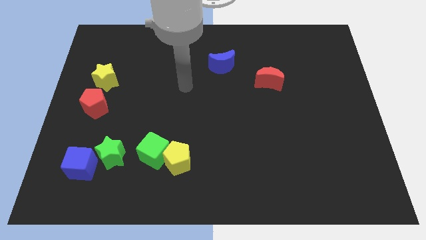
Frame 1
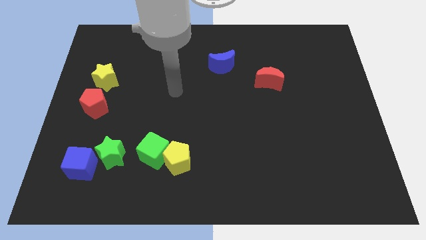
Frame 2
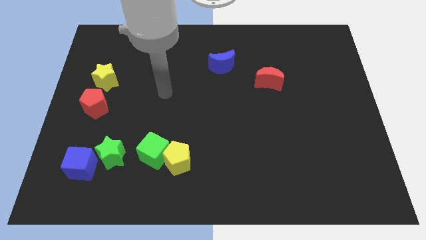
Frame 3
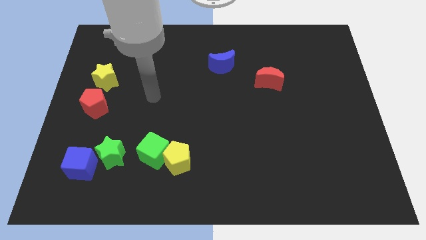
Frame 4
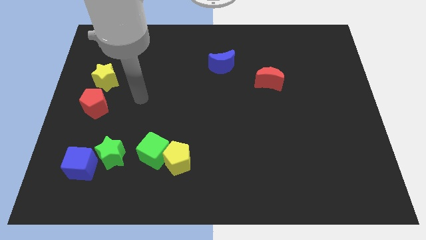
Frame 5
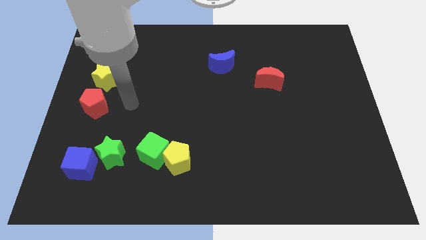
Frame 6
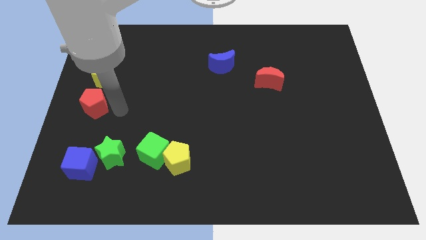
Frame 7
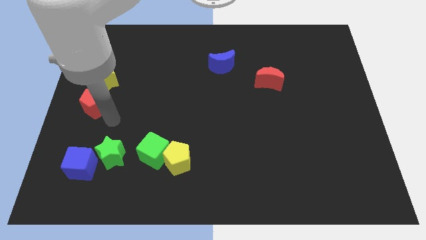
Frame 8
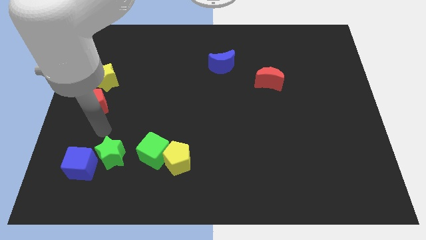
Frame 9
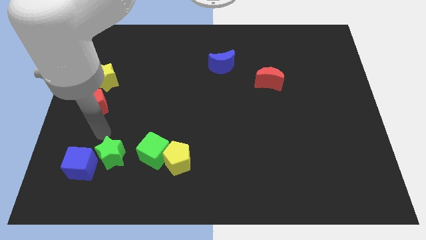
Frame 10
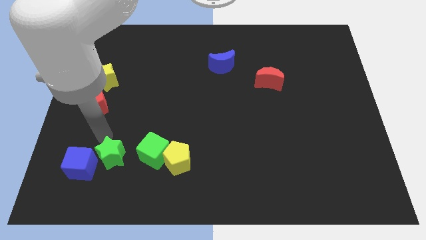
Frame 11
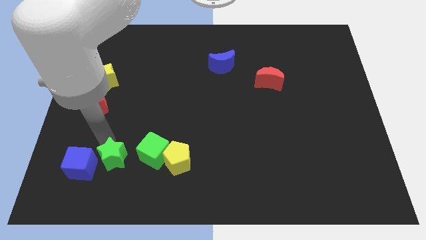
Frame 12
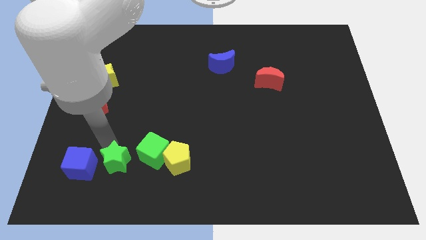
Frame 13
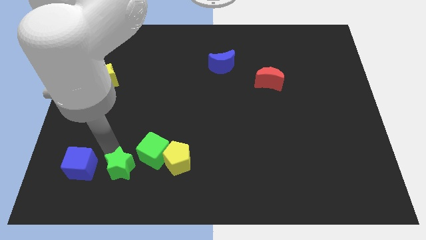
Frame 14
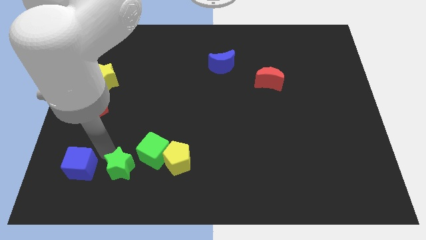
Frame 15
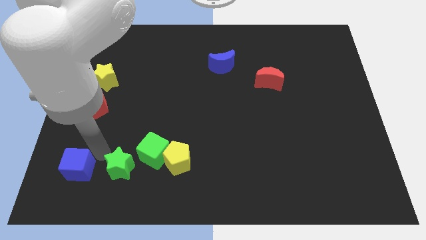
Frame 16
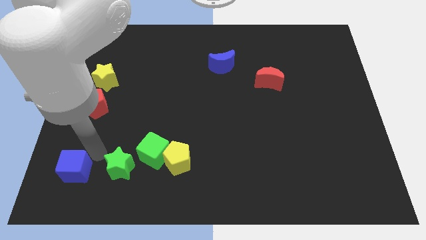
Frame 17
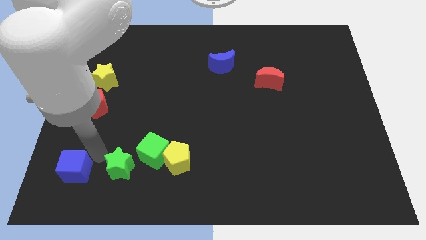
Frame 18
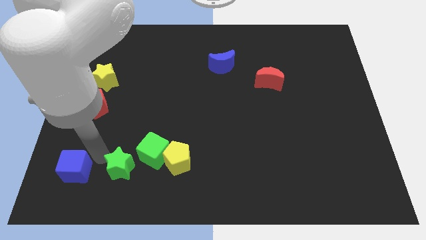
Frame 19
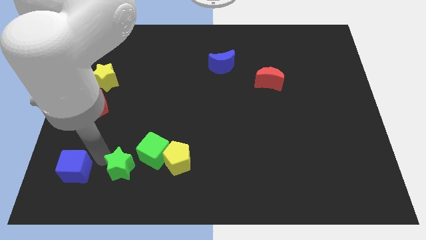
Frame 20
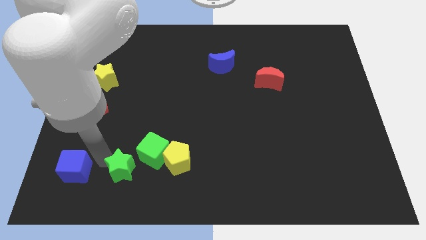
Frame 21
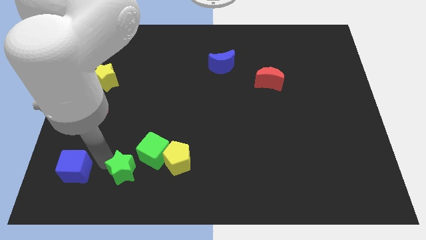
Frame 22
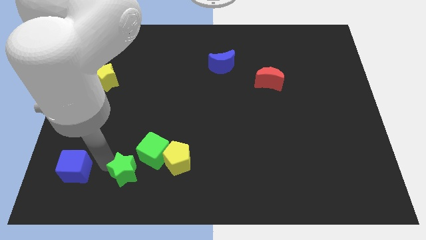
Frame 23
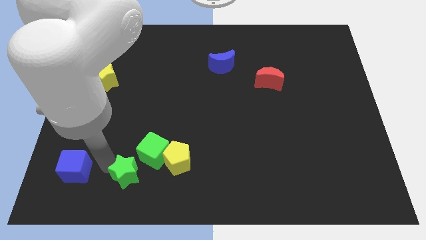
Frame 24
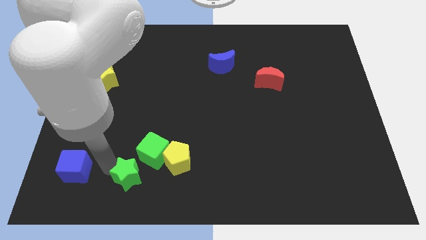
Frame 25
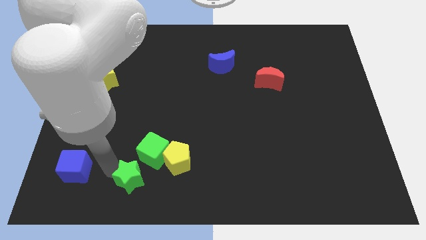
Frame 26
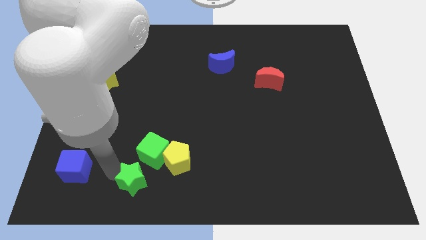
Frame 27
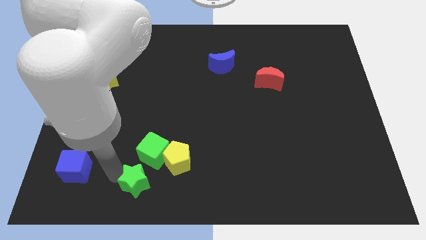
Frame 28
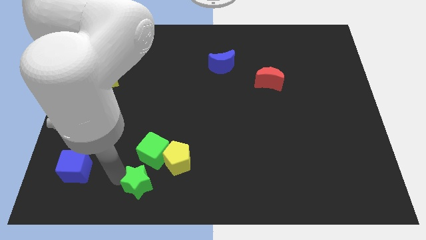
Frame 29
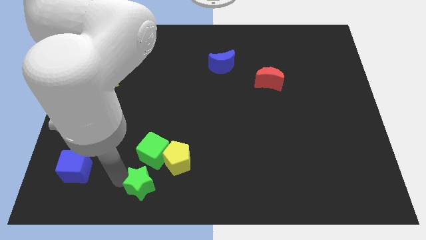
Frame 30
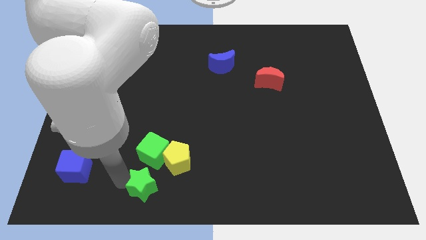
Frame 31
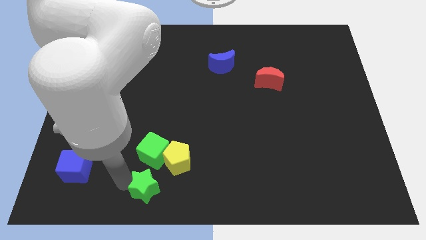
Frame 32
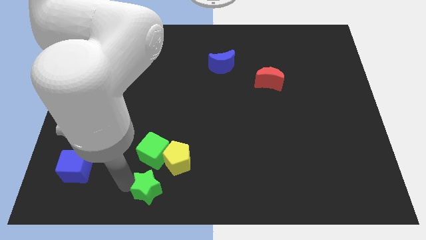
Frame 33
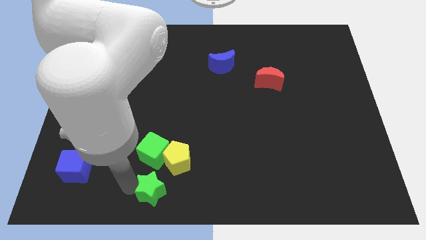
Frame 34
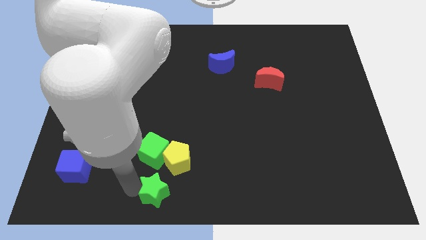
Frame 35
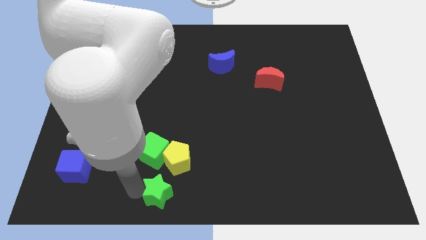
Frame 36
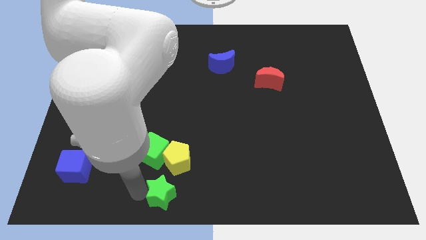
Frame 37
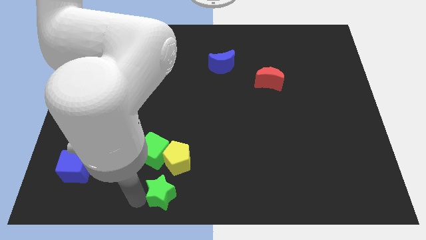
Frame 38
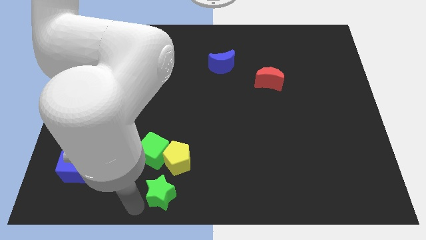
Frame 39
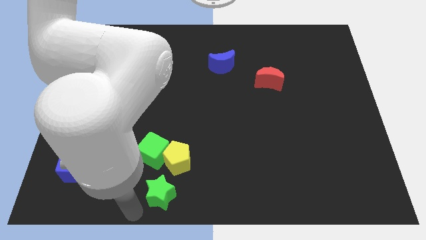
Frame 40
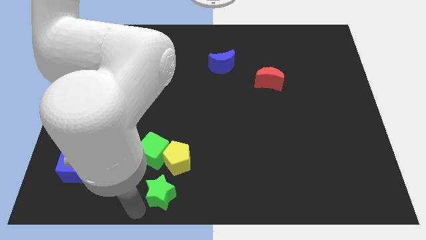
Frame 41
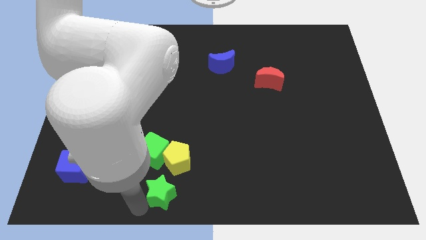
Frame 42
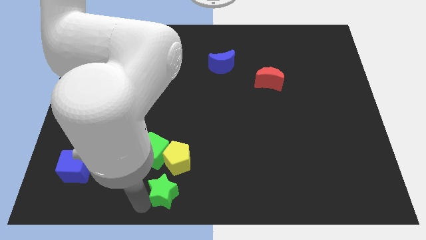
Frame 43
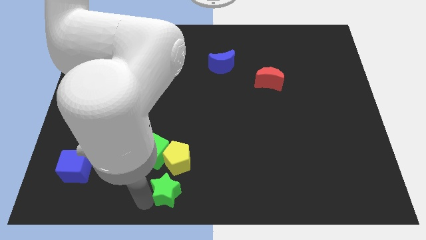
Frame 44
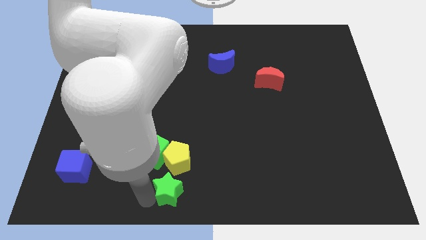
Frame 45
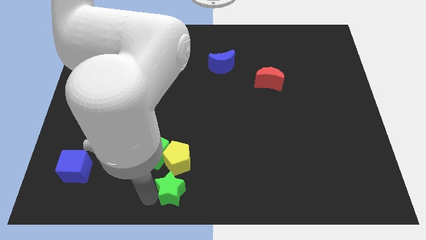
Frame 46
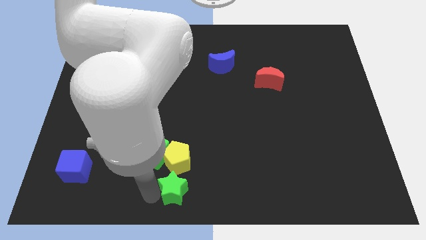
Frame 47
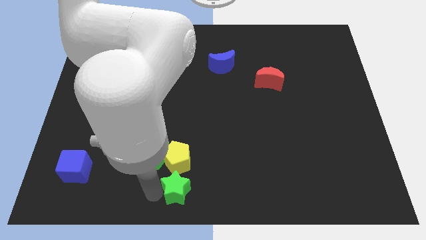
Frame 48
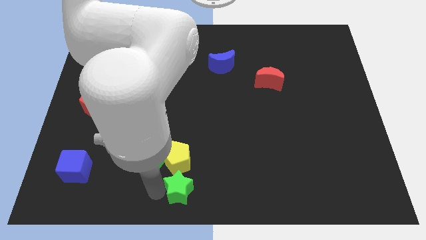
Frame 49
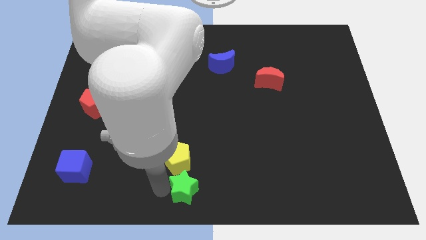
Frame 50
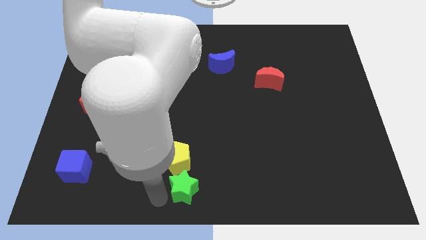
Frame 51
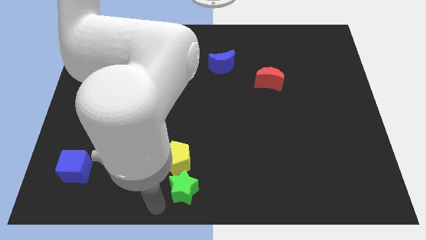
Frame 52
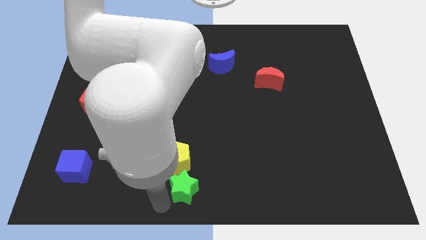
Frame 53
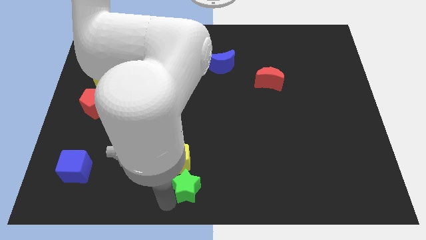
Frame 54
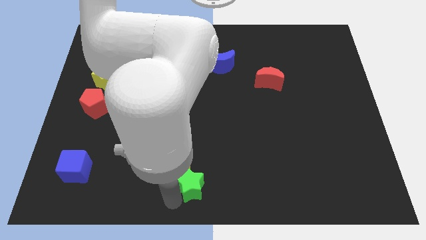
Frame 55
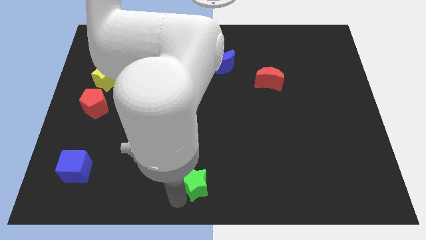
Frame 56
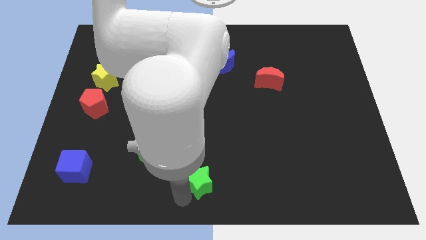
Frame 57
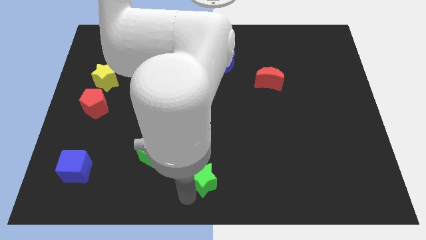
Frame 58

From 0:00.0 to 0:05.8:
put the green star just right of the yellow pentagon

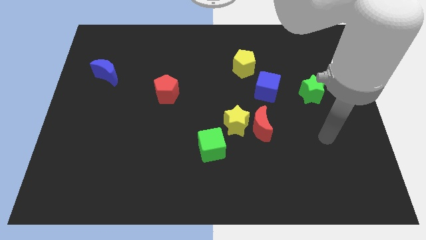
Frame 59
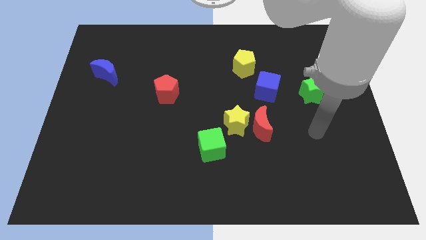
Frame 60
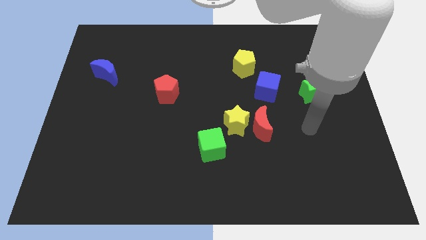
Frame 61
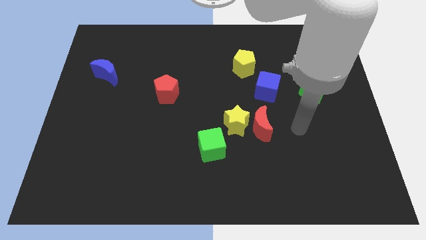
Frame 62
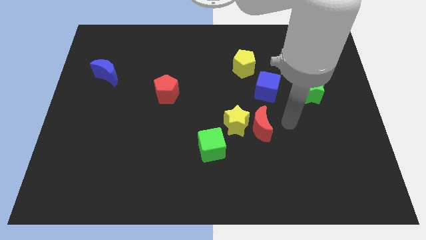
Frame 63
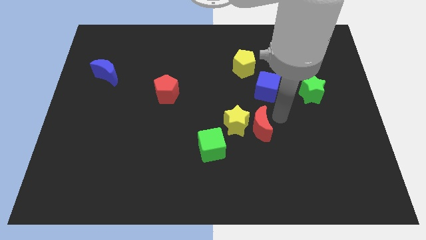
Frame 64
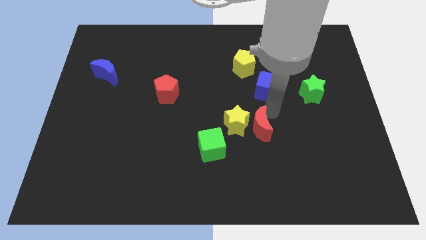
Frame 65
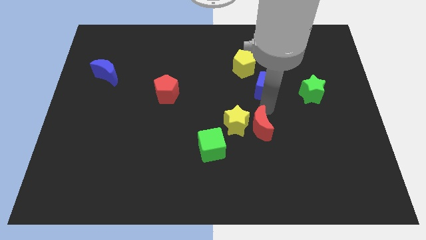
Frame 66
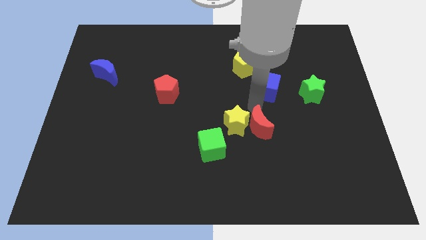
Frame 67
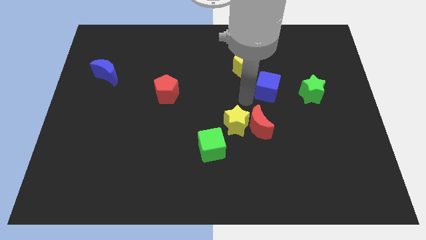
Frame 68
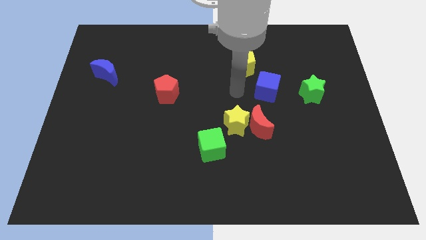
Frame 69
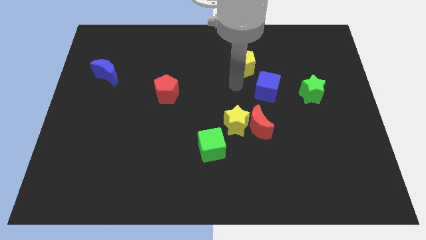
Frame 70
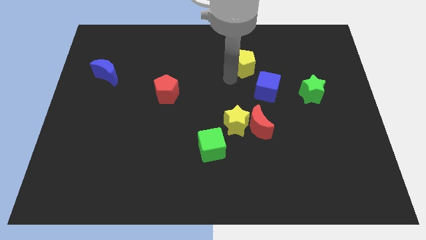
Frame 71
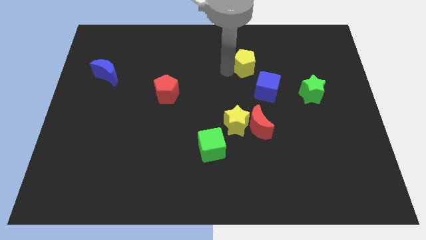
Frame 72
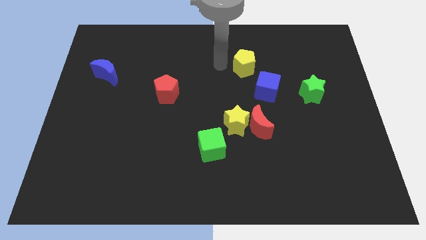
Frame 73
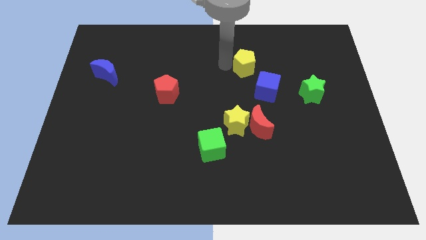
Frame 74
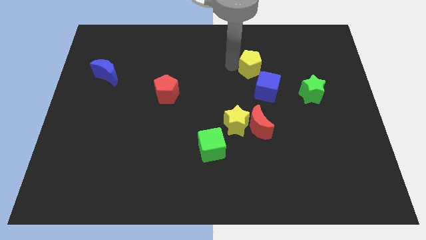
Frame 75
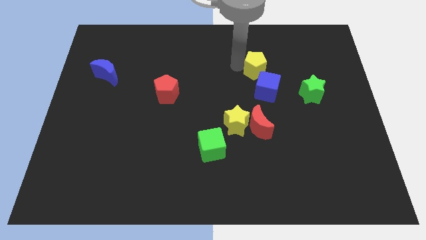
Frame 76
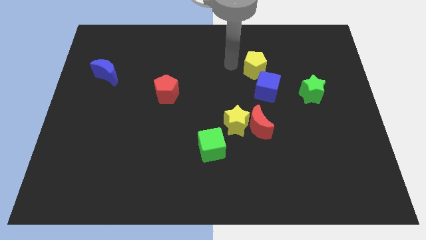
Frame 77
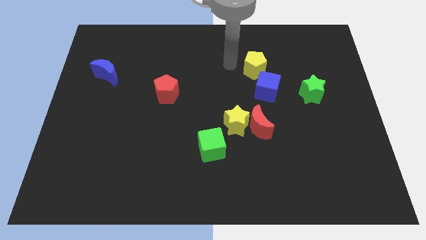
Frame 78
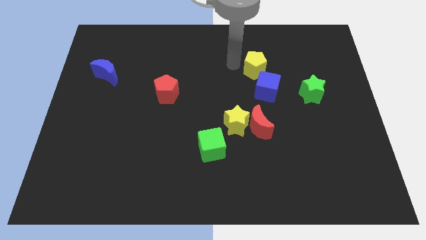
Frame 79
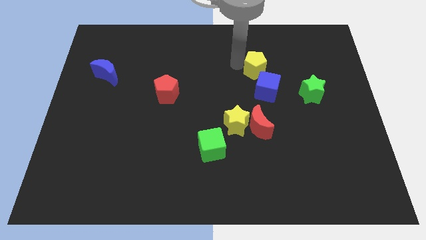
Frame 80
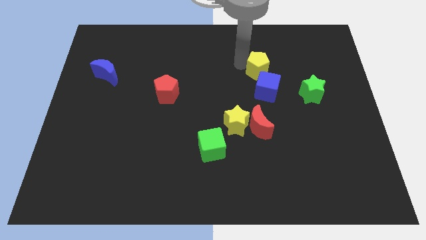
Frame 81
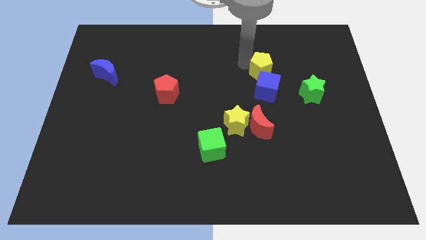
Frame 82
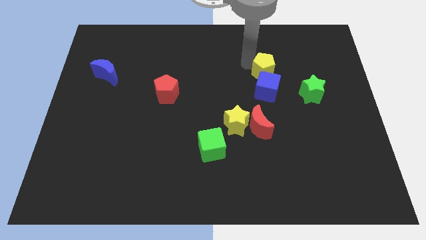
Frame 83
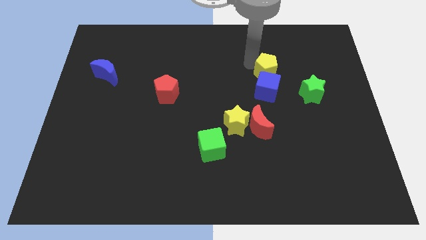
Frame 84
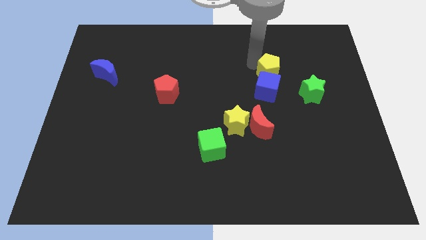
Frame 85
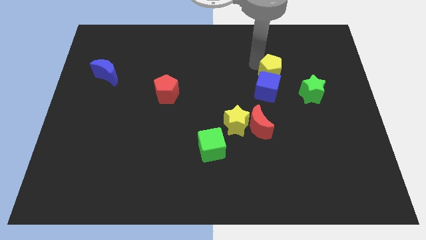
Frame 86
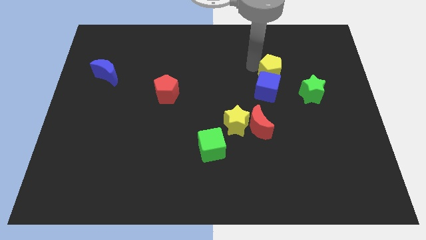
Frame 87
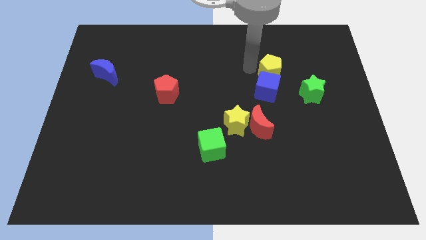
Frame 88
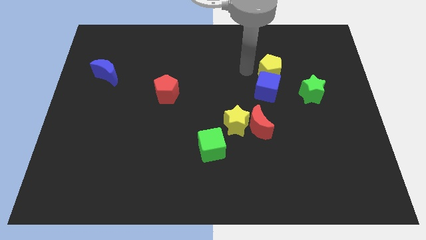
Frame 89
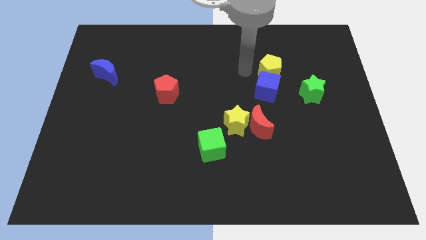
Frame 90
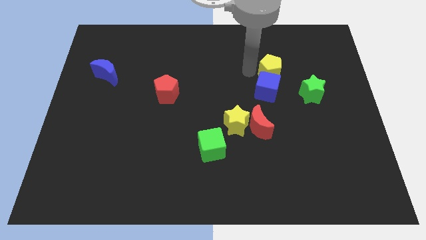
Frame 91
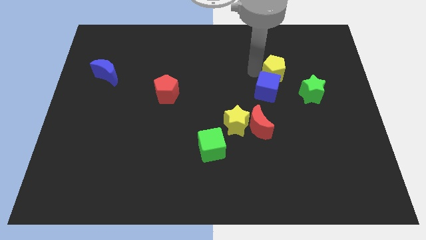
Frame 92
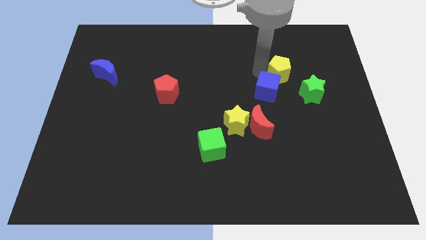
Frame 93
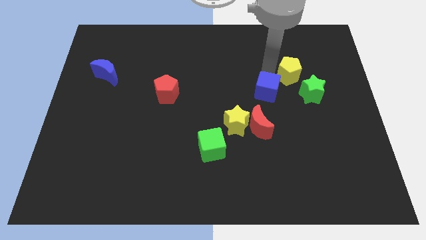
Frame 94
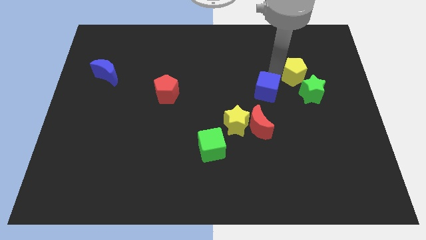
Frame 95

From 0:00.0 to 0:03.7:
slide the yellow pentagon right of the blue cube
